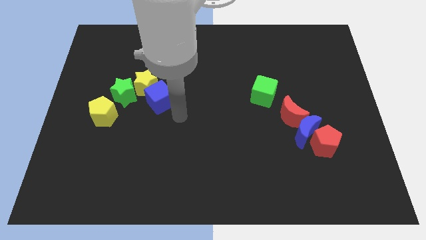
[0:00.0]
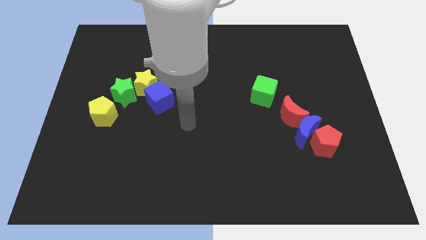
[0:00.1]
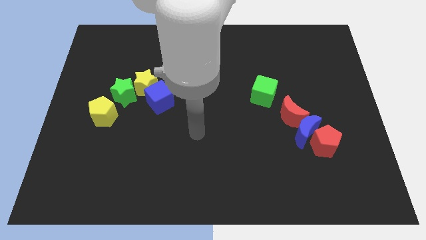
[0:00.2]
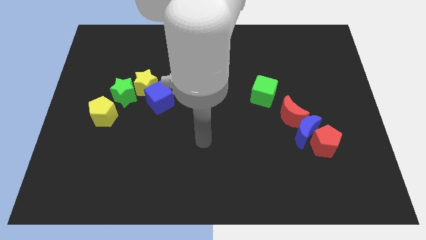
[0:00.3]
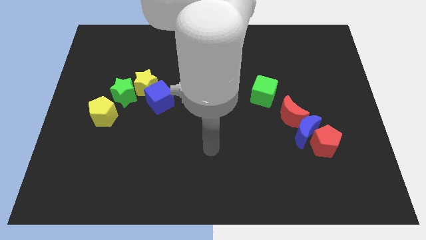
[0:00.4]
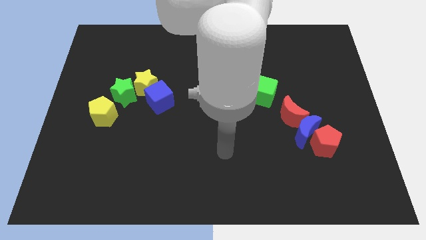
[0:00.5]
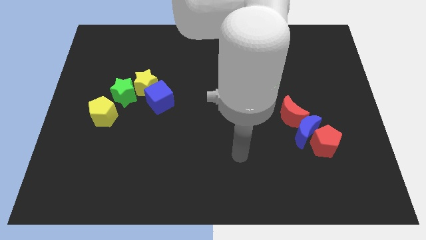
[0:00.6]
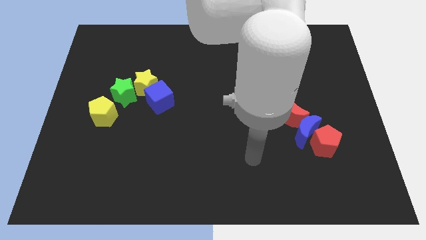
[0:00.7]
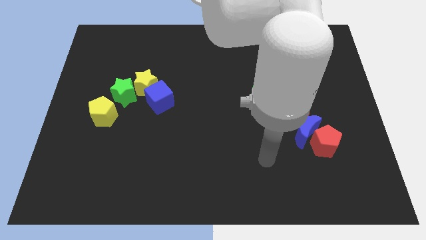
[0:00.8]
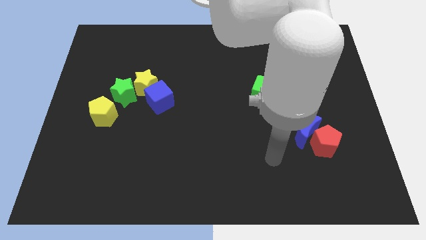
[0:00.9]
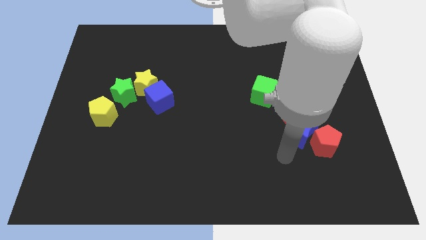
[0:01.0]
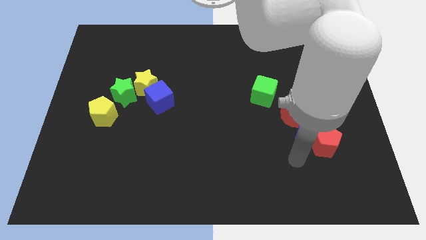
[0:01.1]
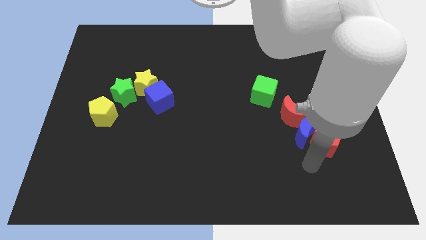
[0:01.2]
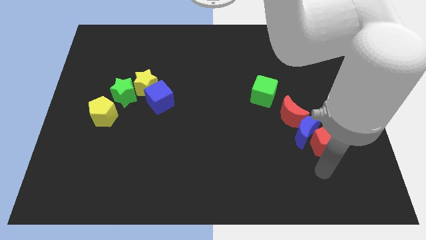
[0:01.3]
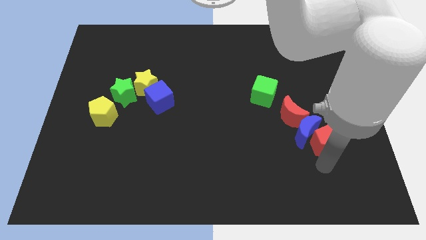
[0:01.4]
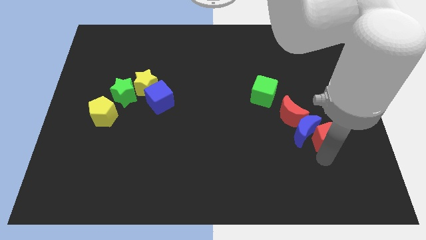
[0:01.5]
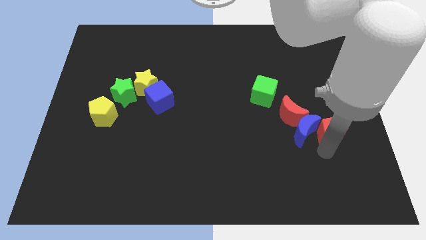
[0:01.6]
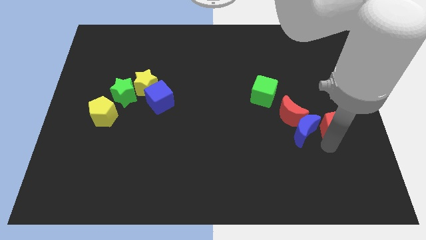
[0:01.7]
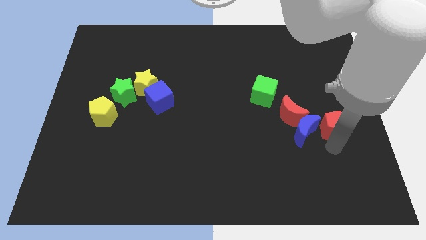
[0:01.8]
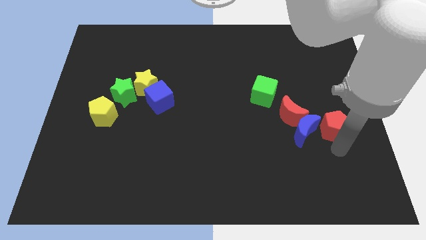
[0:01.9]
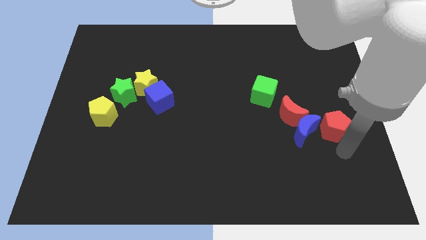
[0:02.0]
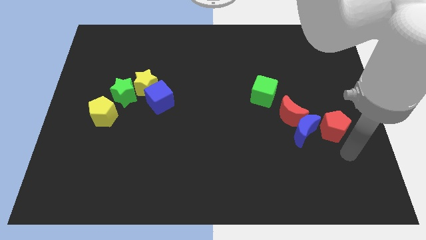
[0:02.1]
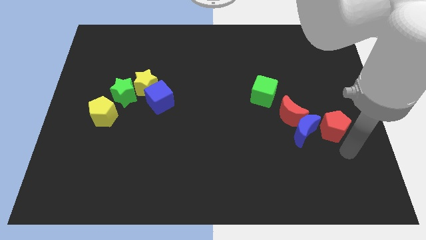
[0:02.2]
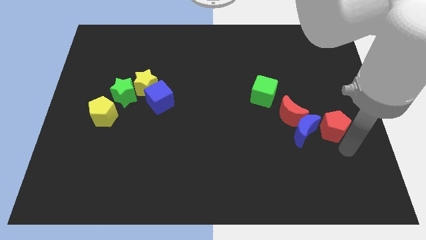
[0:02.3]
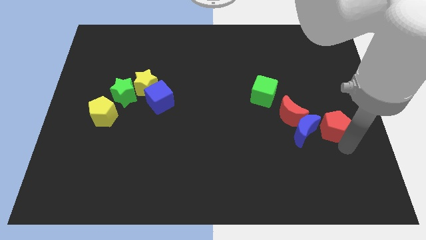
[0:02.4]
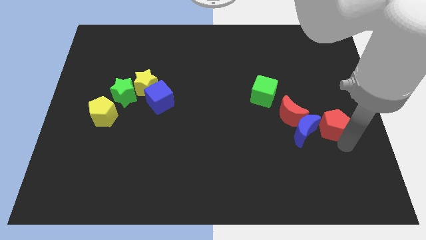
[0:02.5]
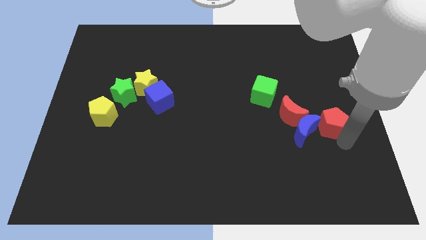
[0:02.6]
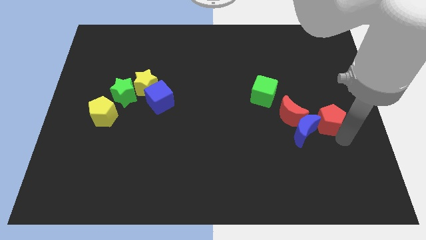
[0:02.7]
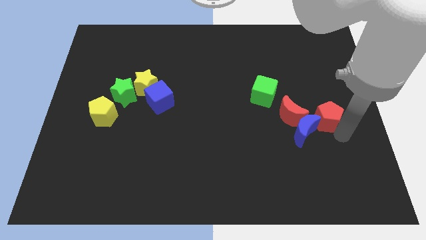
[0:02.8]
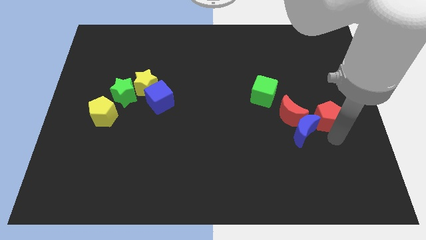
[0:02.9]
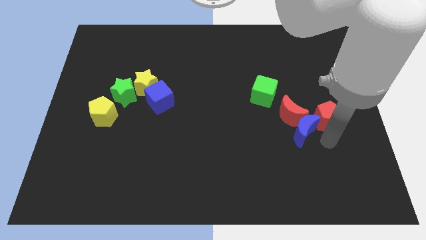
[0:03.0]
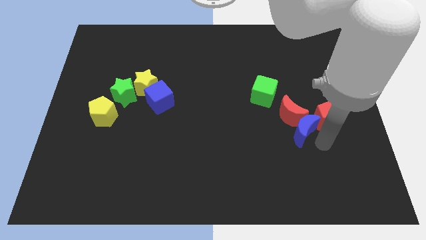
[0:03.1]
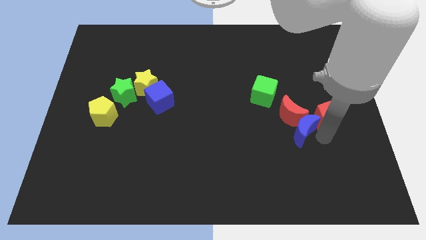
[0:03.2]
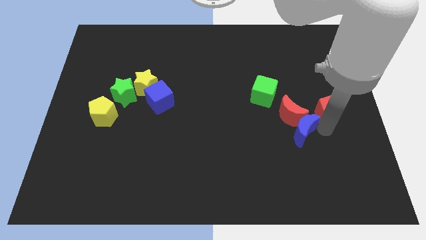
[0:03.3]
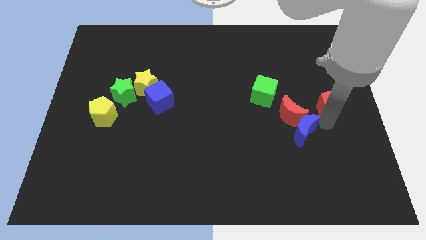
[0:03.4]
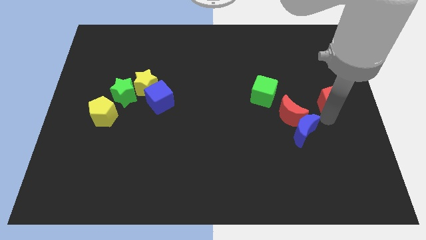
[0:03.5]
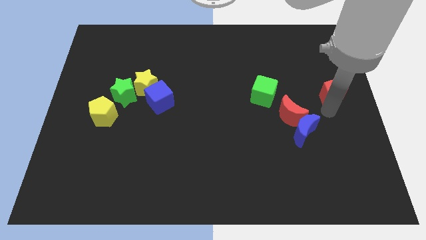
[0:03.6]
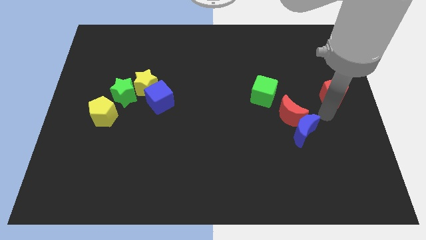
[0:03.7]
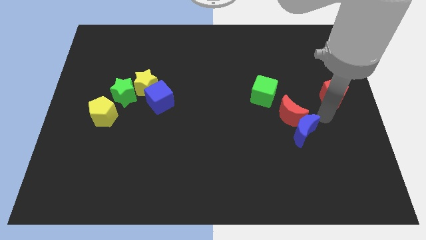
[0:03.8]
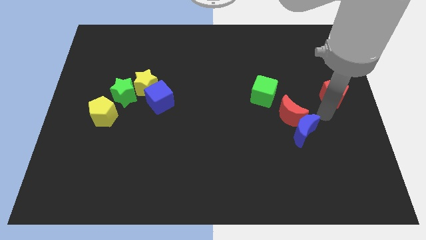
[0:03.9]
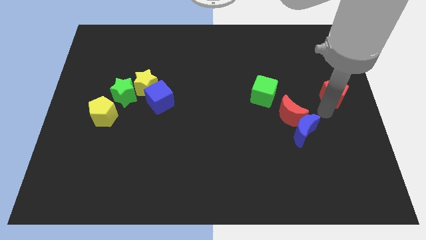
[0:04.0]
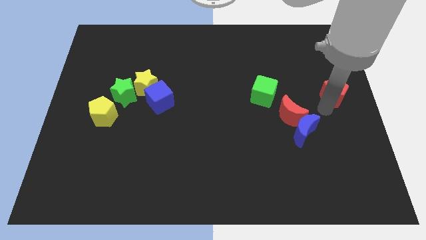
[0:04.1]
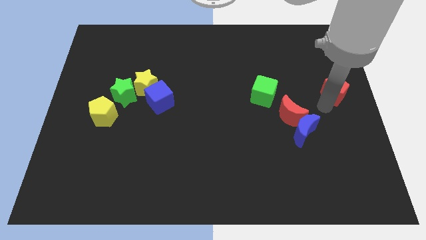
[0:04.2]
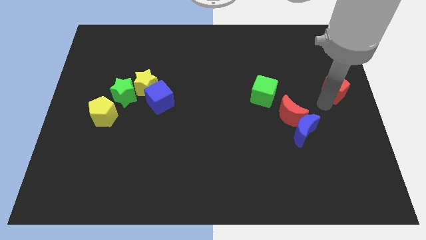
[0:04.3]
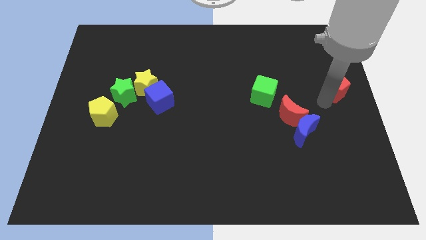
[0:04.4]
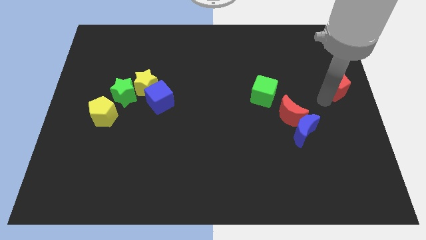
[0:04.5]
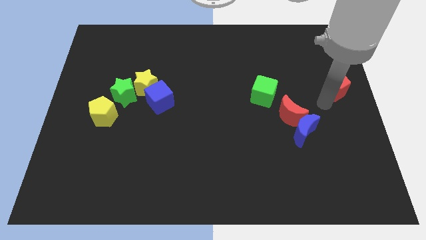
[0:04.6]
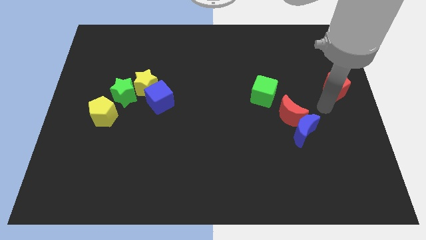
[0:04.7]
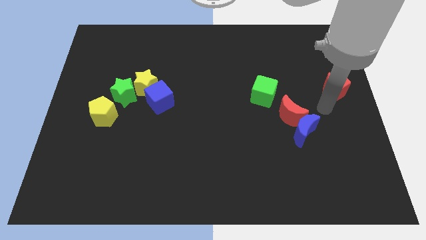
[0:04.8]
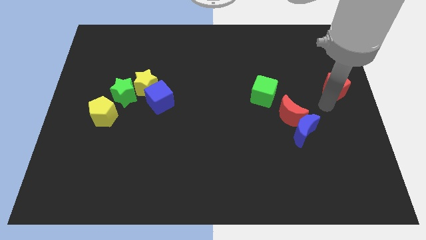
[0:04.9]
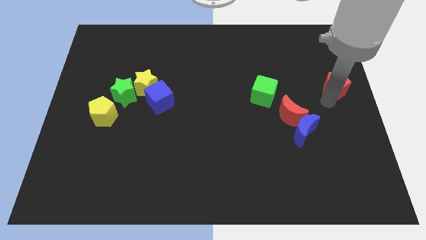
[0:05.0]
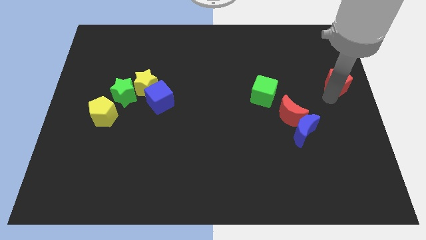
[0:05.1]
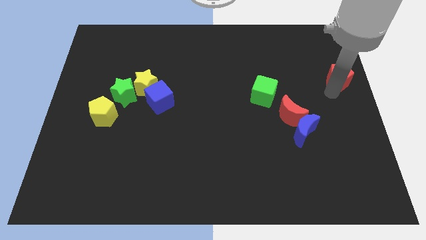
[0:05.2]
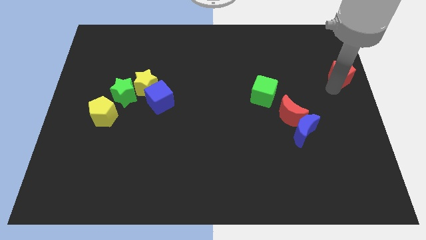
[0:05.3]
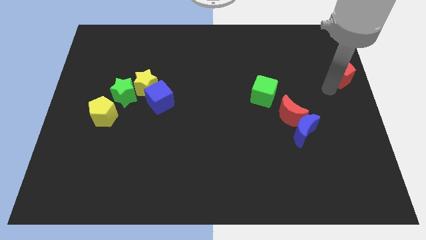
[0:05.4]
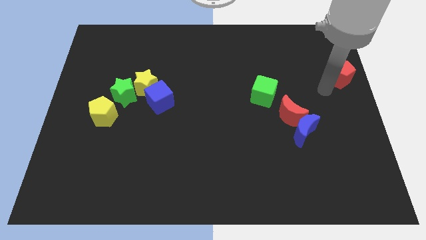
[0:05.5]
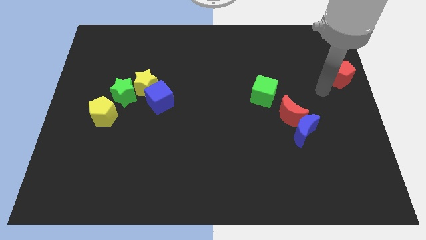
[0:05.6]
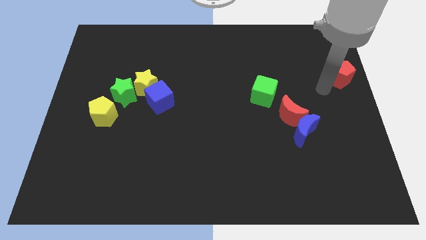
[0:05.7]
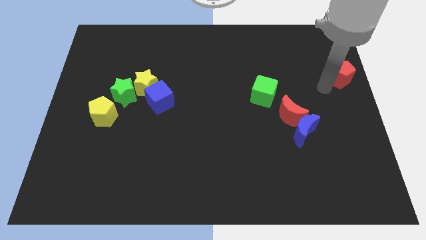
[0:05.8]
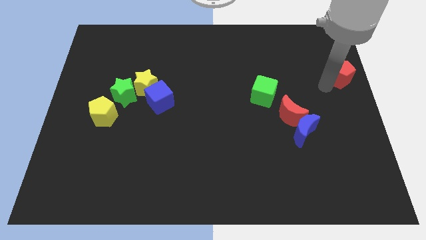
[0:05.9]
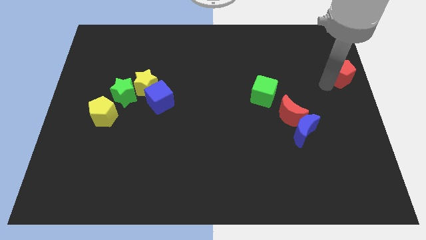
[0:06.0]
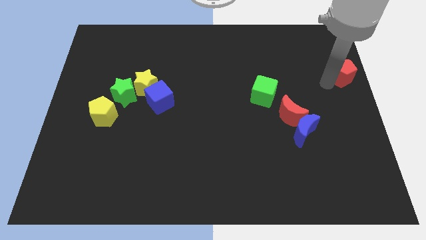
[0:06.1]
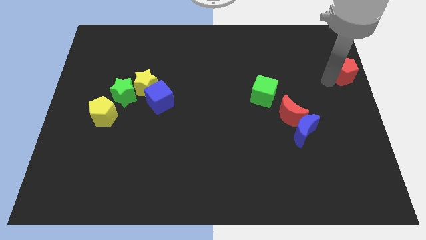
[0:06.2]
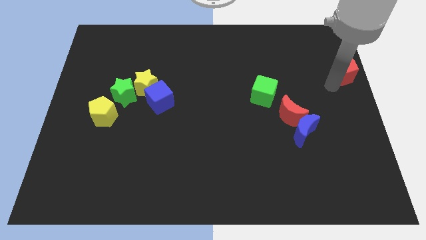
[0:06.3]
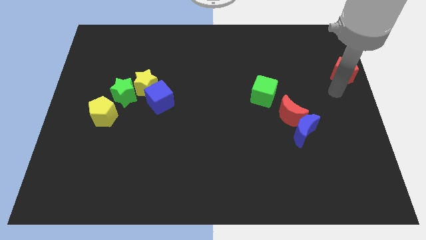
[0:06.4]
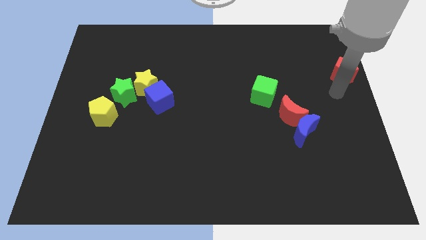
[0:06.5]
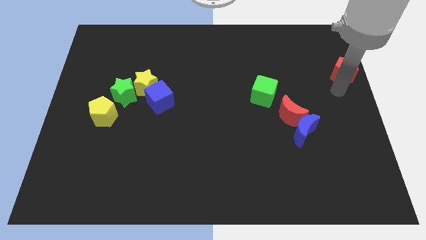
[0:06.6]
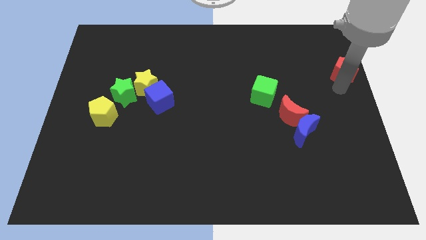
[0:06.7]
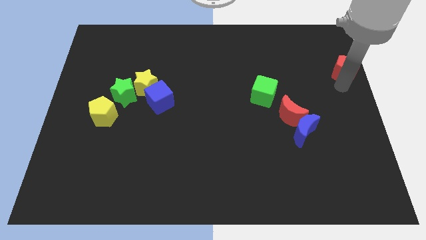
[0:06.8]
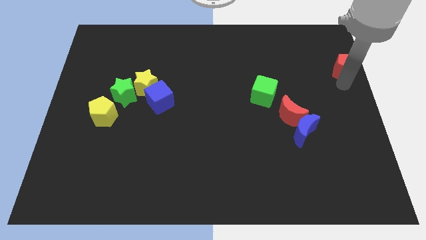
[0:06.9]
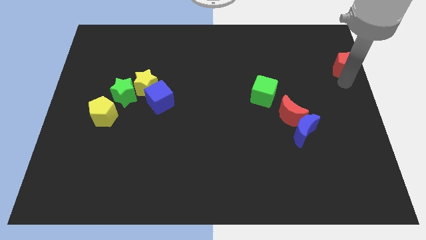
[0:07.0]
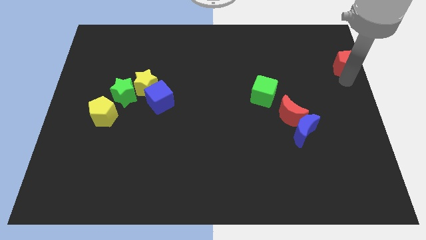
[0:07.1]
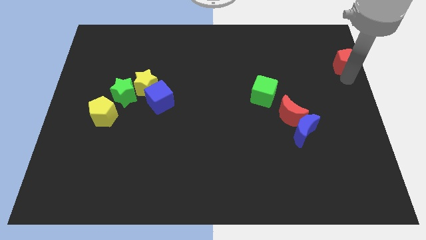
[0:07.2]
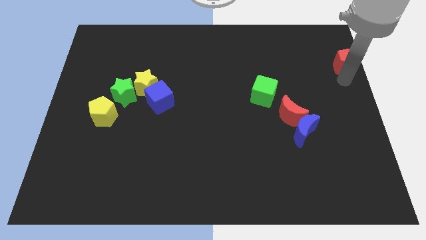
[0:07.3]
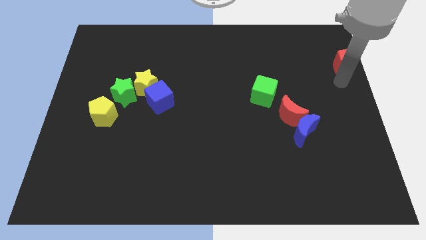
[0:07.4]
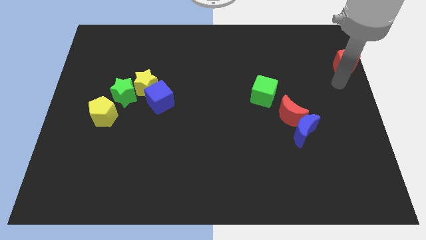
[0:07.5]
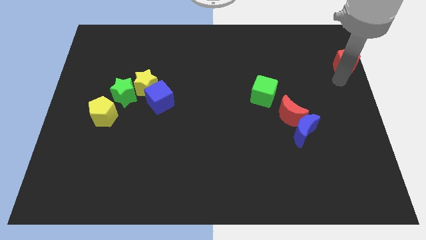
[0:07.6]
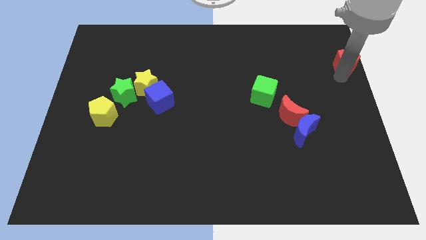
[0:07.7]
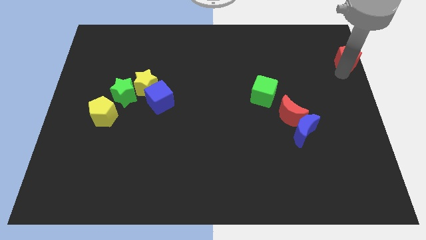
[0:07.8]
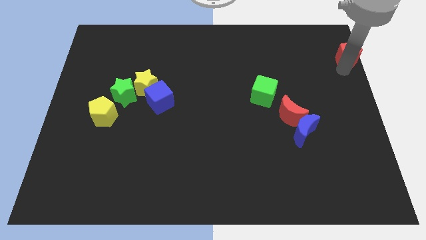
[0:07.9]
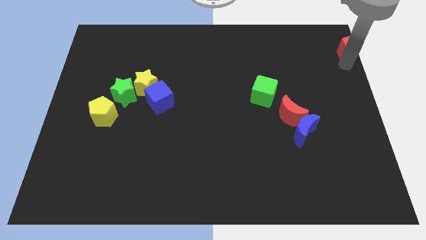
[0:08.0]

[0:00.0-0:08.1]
move the red pentagon to the upper right corner
